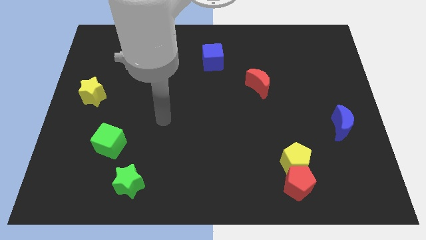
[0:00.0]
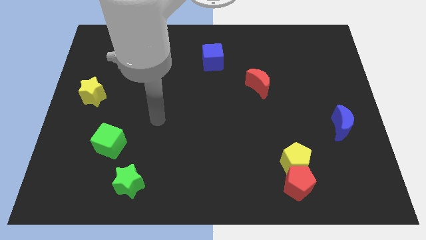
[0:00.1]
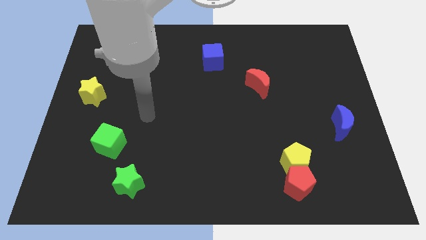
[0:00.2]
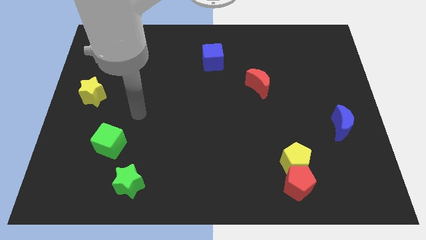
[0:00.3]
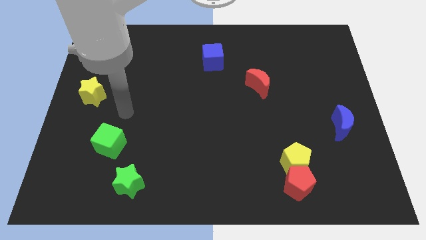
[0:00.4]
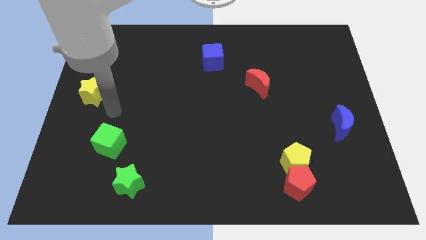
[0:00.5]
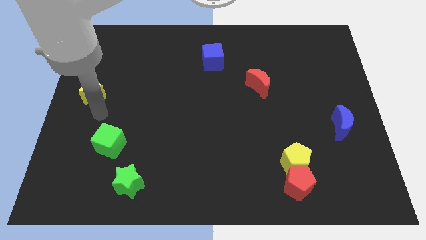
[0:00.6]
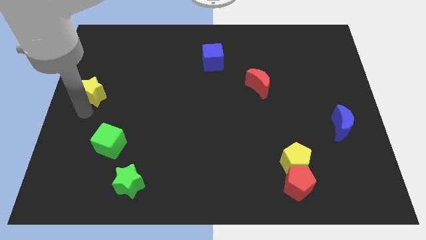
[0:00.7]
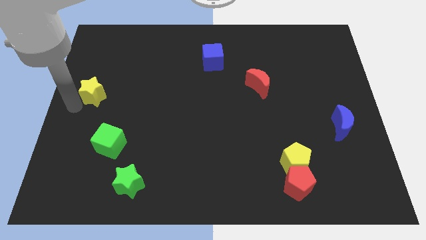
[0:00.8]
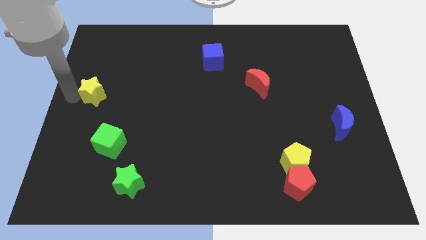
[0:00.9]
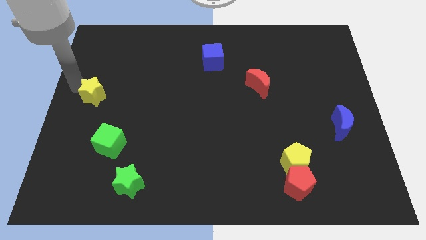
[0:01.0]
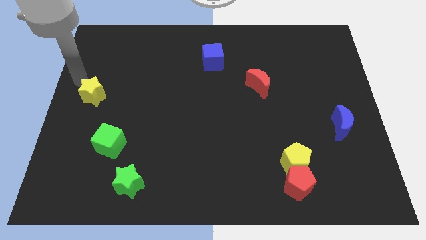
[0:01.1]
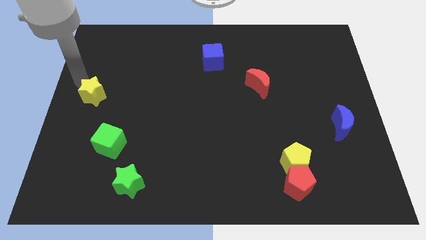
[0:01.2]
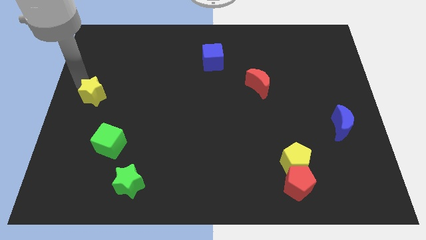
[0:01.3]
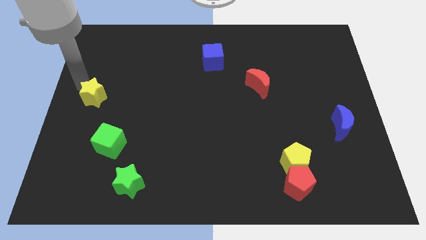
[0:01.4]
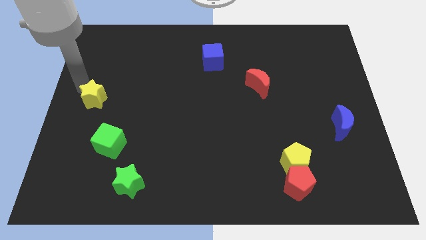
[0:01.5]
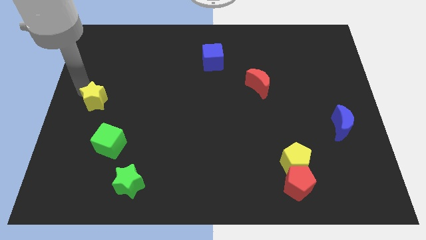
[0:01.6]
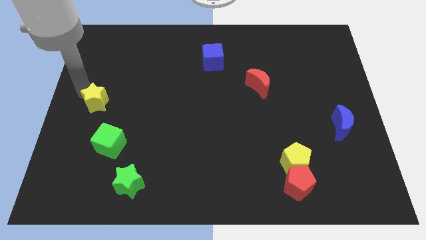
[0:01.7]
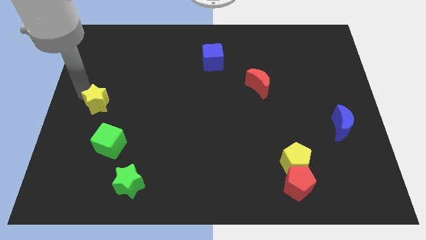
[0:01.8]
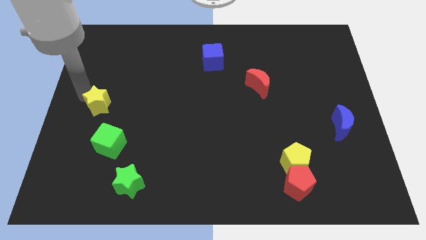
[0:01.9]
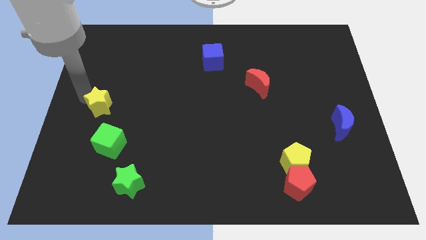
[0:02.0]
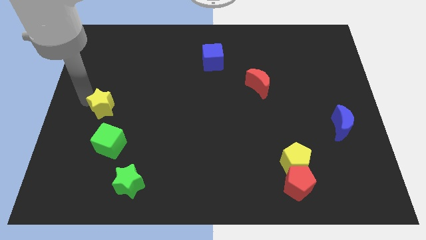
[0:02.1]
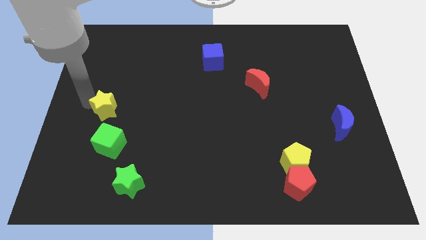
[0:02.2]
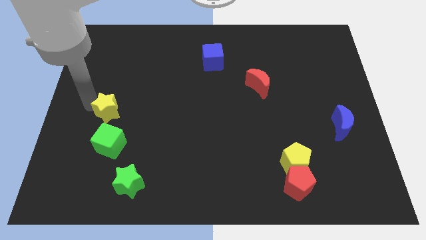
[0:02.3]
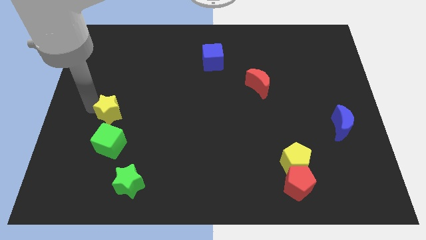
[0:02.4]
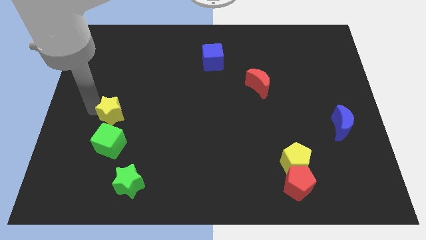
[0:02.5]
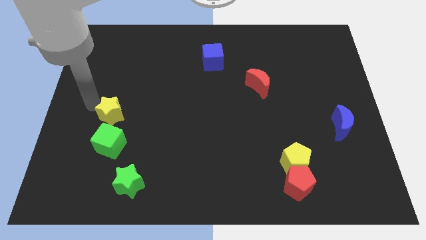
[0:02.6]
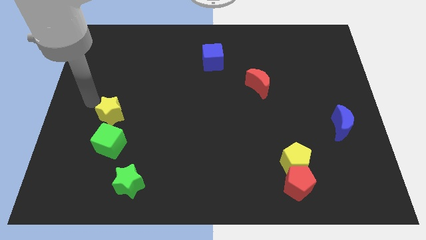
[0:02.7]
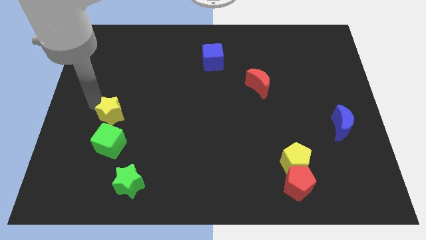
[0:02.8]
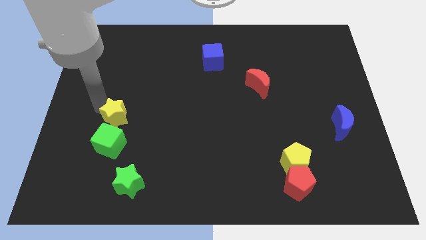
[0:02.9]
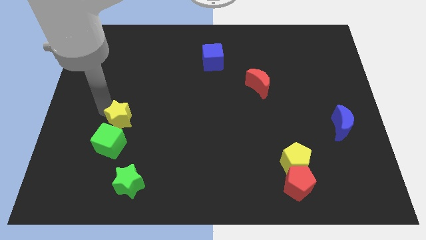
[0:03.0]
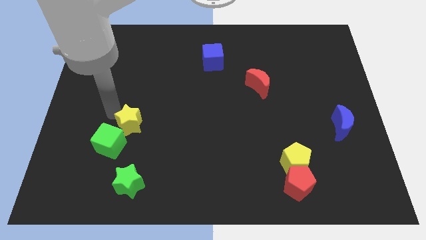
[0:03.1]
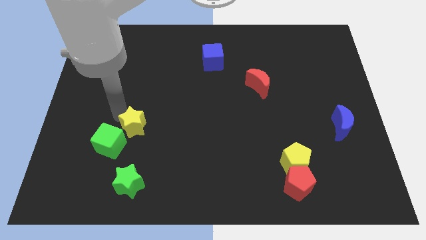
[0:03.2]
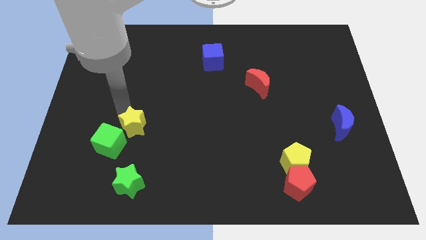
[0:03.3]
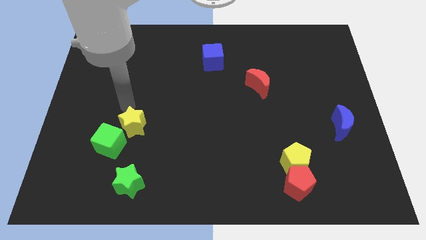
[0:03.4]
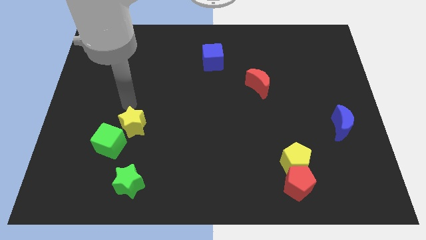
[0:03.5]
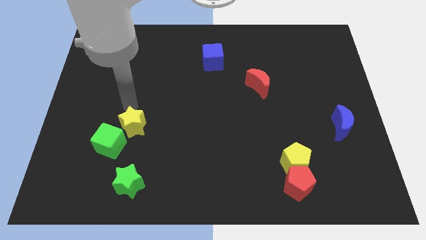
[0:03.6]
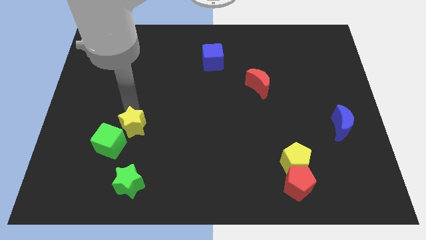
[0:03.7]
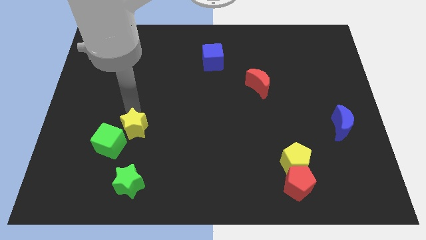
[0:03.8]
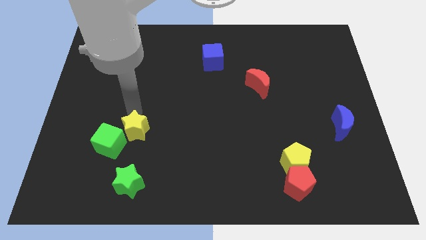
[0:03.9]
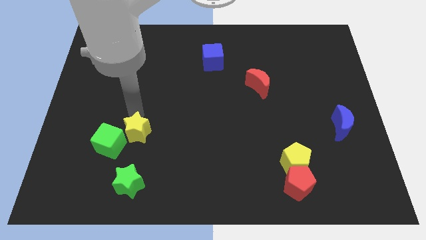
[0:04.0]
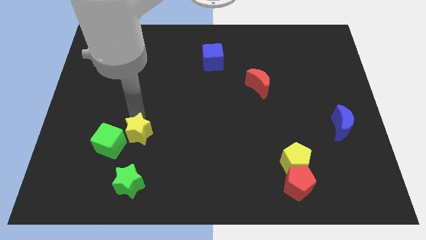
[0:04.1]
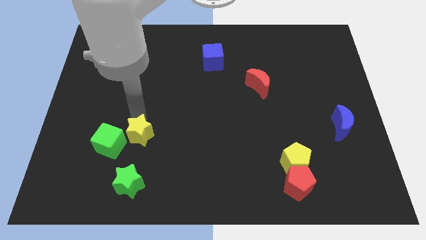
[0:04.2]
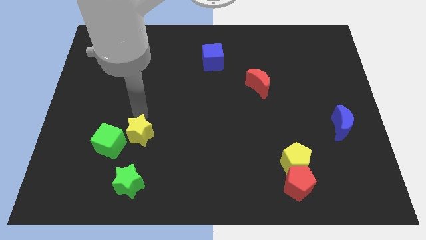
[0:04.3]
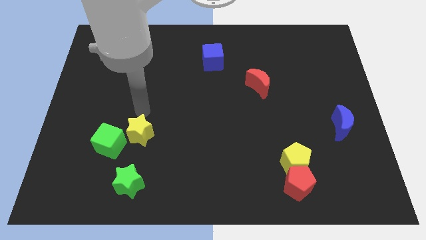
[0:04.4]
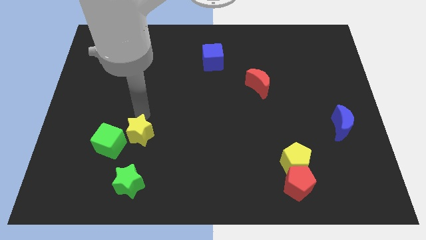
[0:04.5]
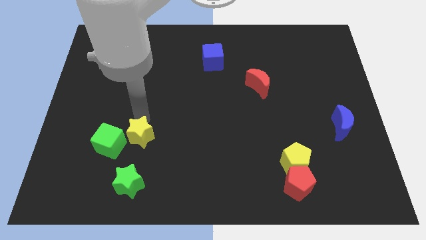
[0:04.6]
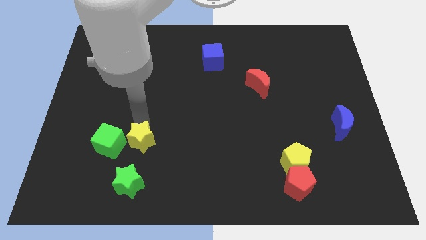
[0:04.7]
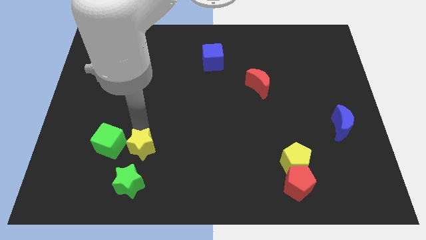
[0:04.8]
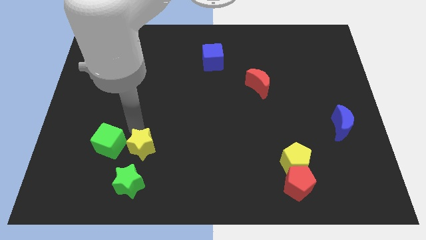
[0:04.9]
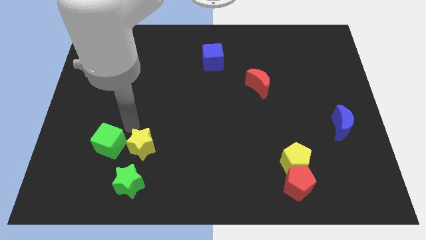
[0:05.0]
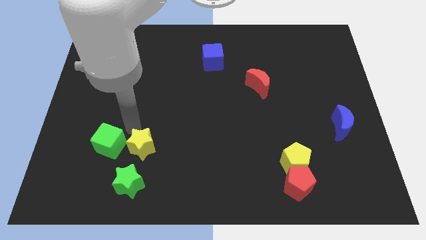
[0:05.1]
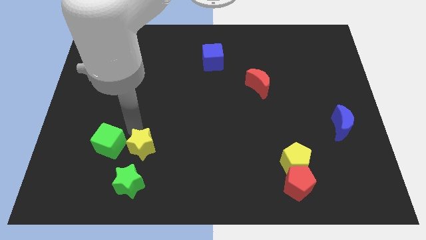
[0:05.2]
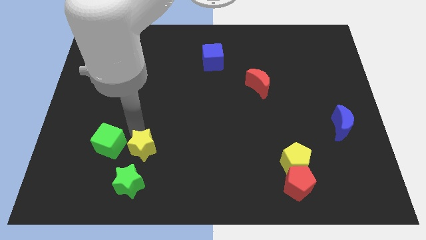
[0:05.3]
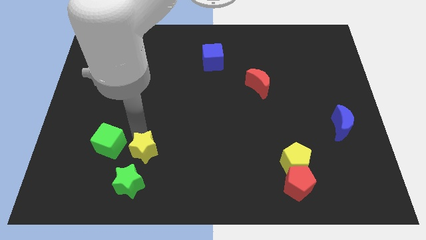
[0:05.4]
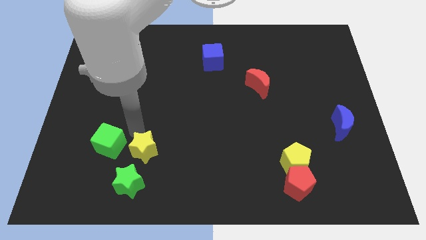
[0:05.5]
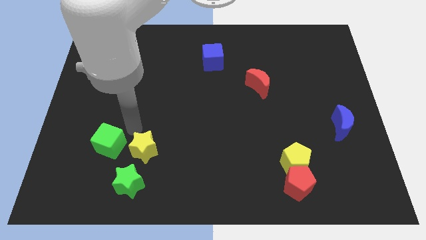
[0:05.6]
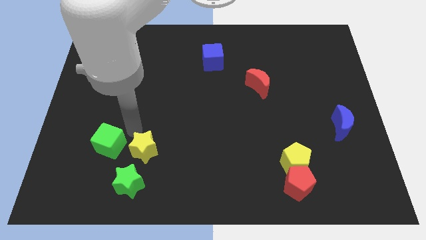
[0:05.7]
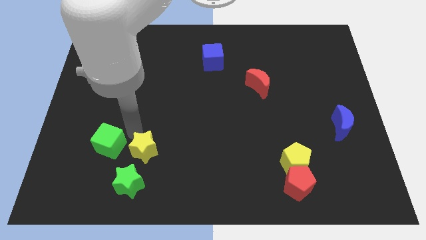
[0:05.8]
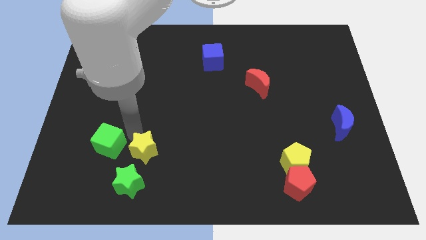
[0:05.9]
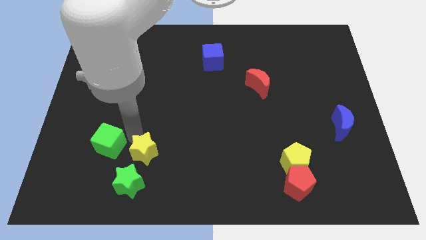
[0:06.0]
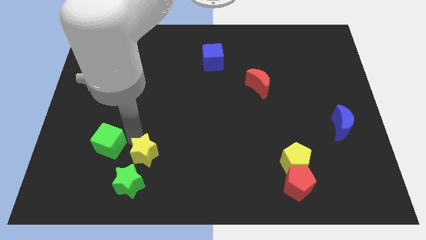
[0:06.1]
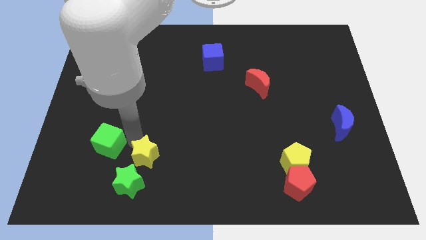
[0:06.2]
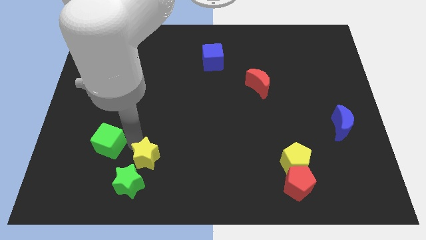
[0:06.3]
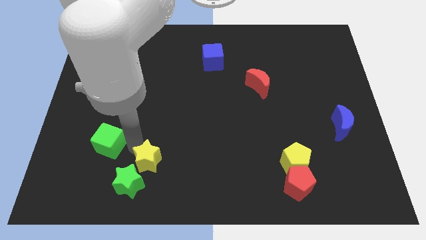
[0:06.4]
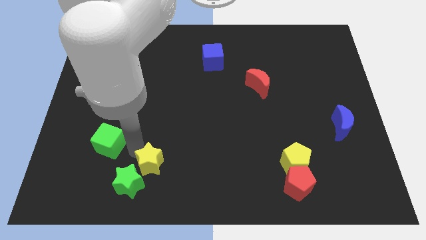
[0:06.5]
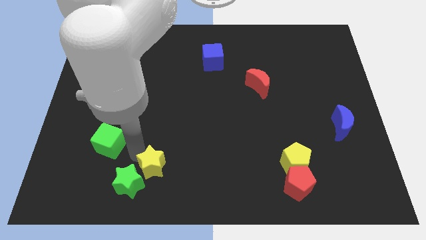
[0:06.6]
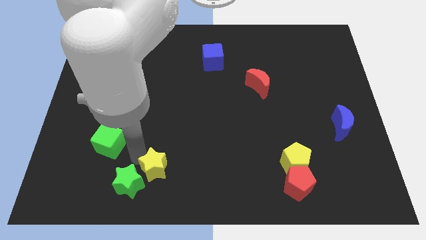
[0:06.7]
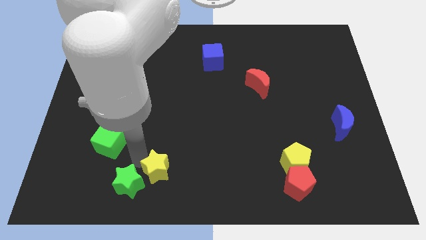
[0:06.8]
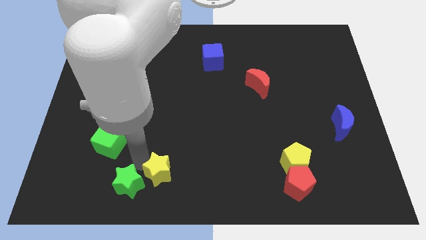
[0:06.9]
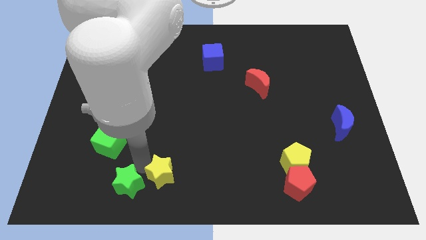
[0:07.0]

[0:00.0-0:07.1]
push the yellow star to the bottom side
